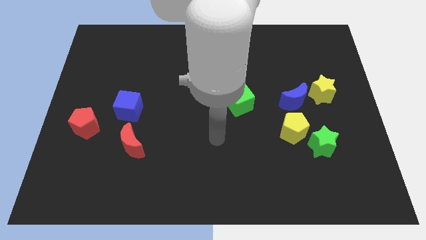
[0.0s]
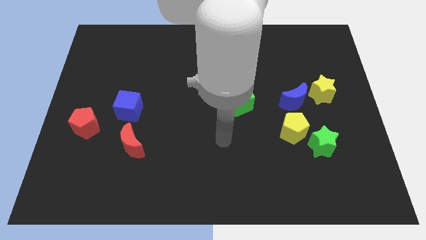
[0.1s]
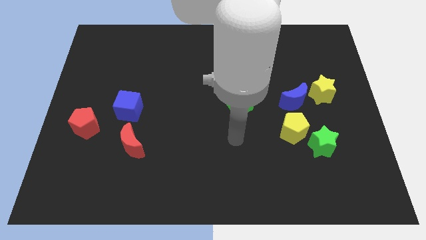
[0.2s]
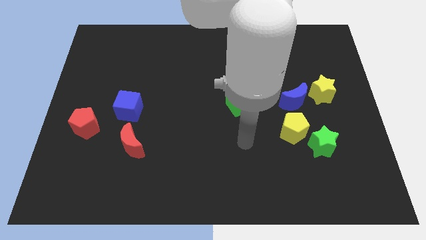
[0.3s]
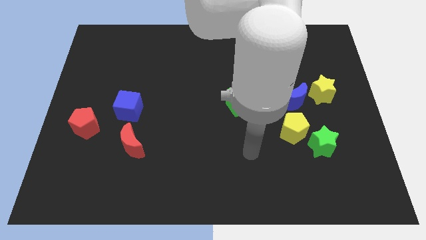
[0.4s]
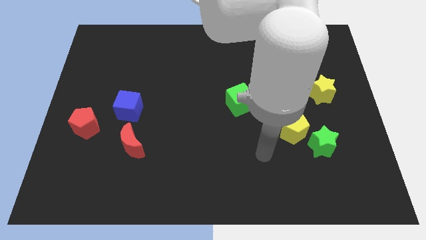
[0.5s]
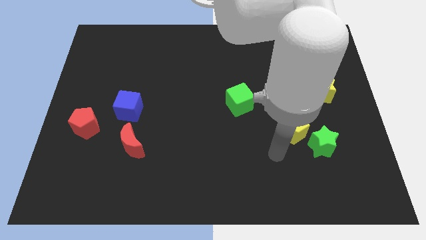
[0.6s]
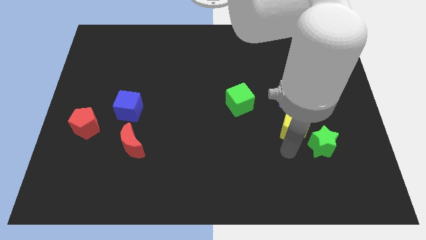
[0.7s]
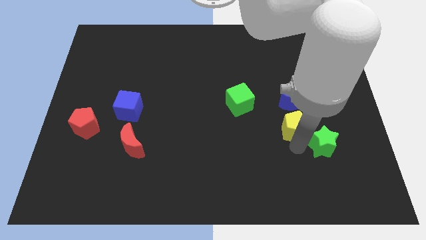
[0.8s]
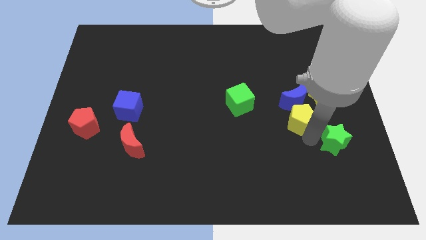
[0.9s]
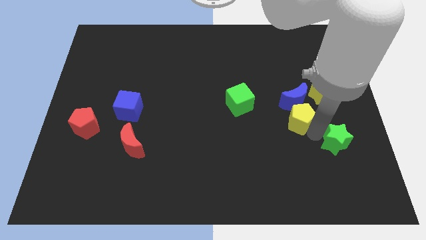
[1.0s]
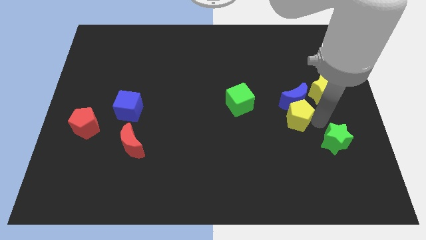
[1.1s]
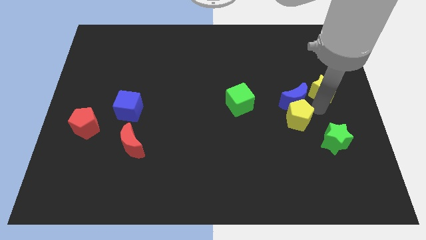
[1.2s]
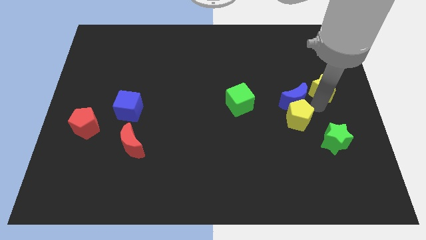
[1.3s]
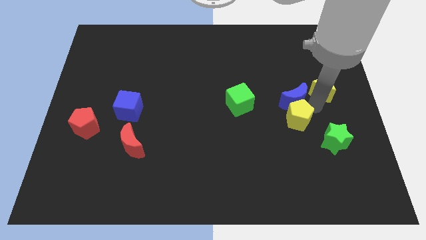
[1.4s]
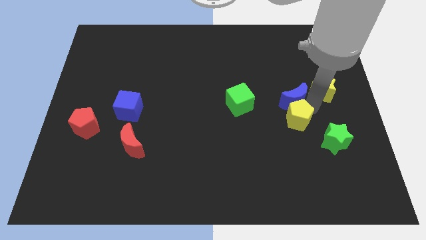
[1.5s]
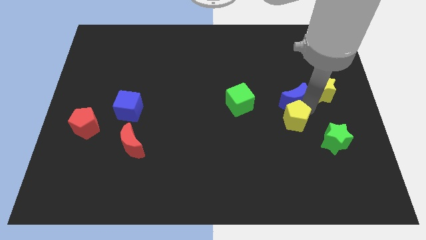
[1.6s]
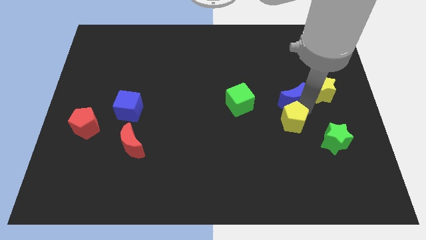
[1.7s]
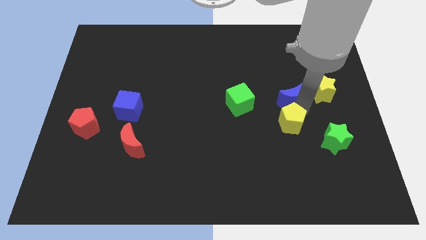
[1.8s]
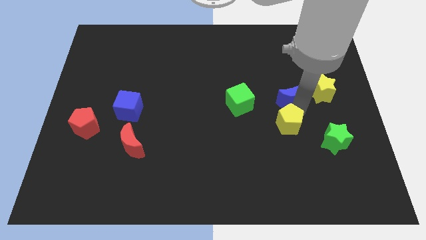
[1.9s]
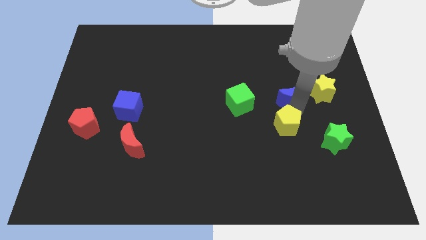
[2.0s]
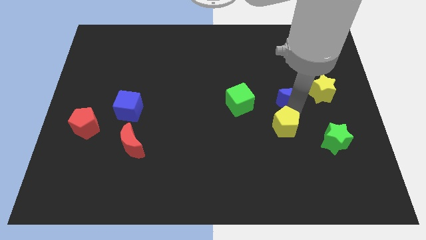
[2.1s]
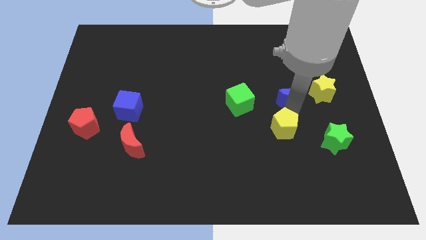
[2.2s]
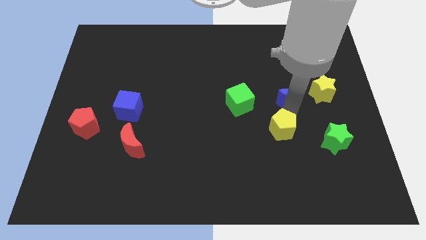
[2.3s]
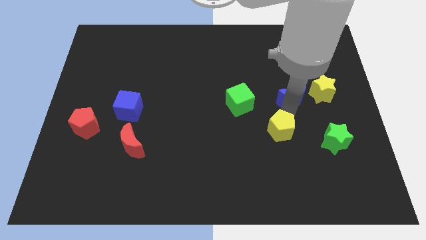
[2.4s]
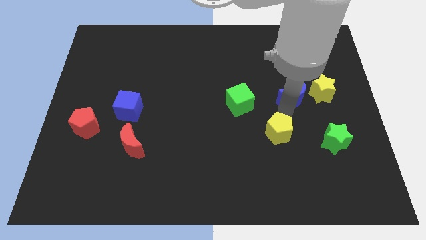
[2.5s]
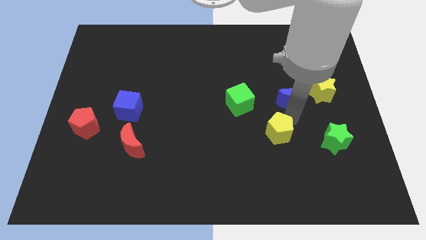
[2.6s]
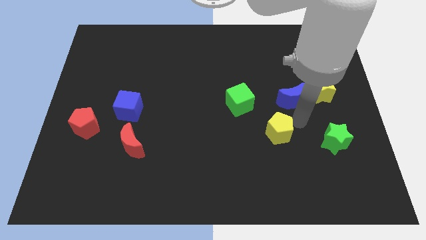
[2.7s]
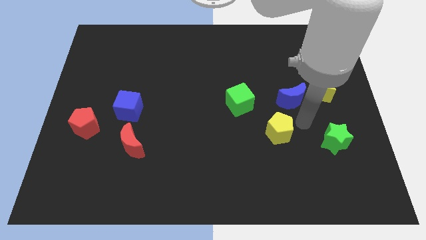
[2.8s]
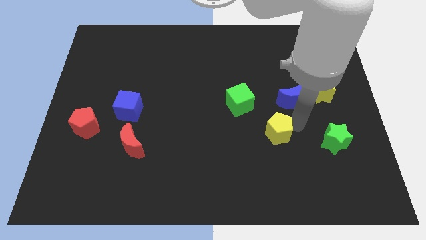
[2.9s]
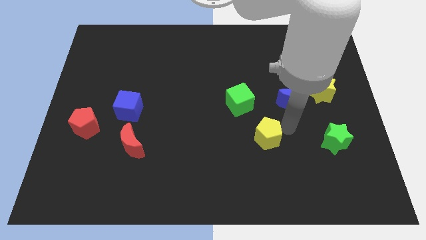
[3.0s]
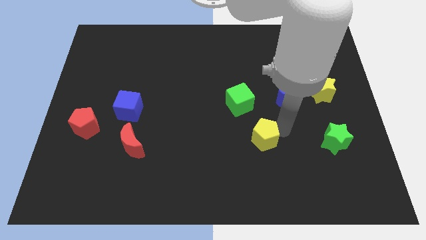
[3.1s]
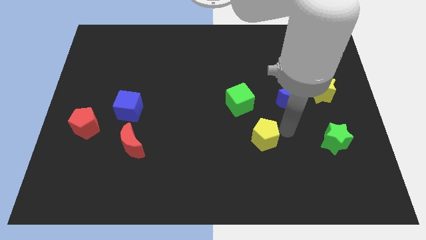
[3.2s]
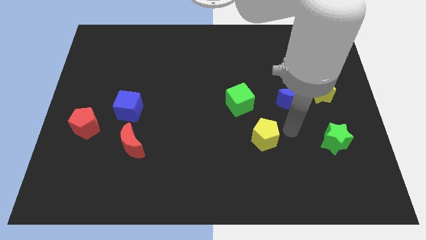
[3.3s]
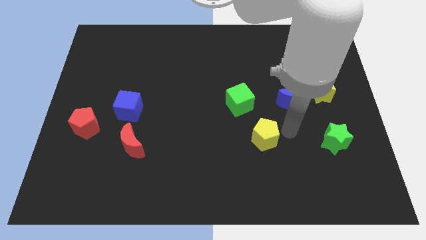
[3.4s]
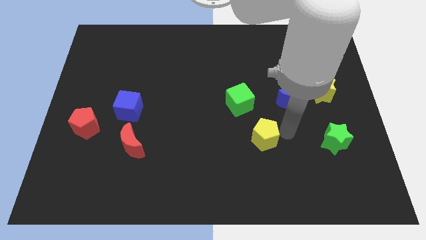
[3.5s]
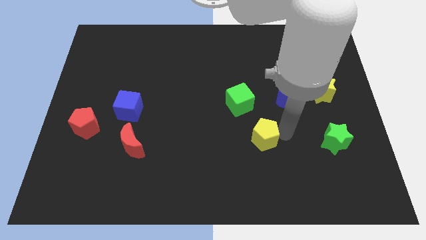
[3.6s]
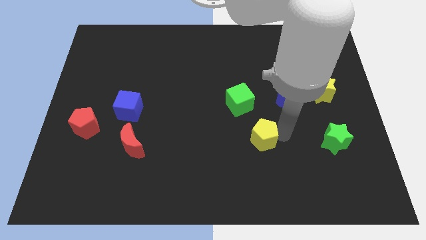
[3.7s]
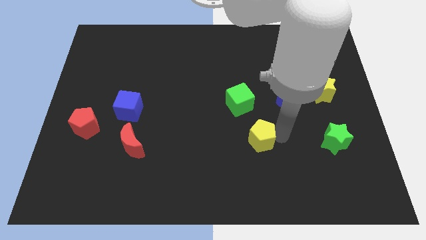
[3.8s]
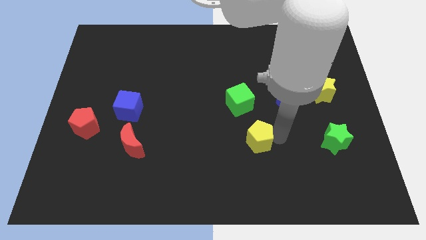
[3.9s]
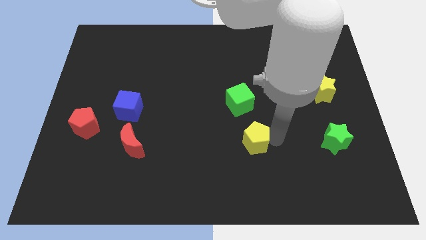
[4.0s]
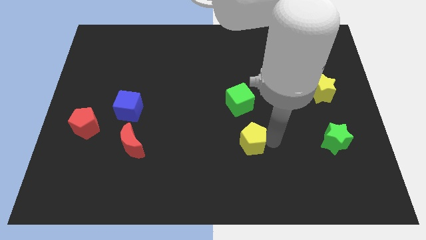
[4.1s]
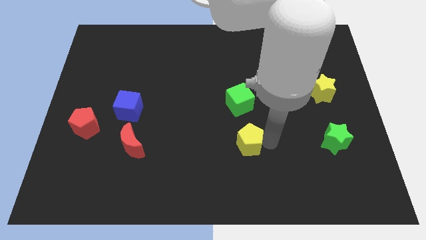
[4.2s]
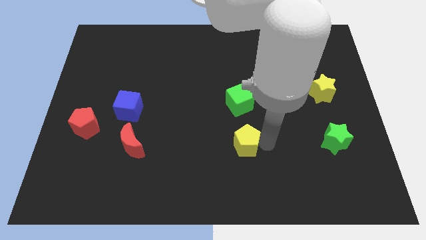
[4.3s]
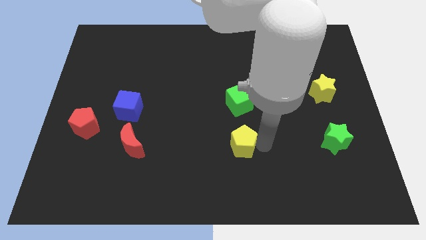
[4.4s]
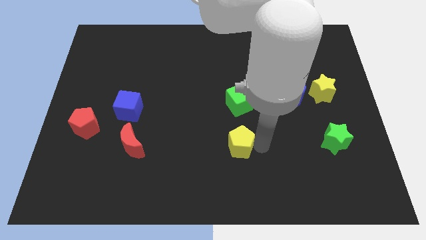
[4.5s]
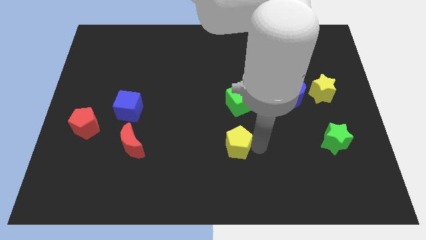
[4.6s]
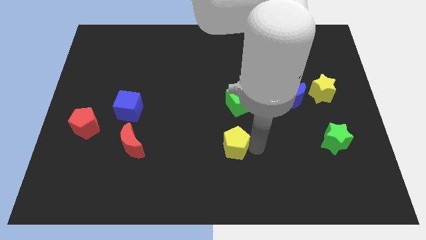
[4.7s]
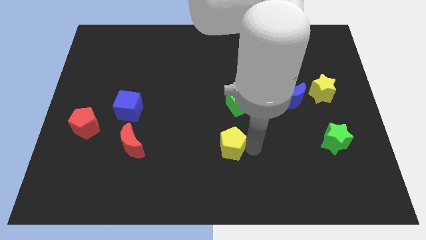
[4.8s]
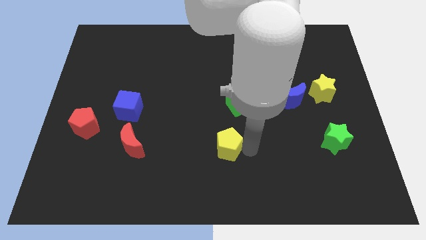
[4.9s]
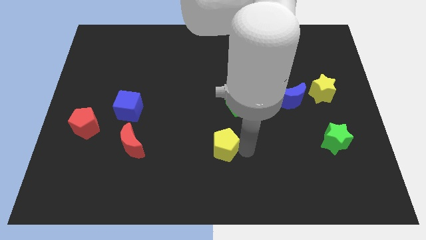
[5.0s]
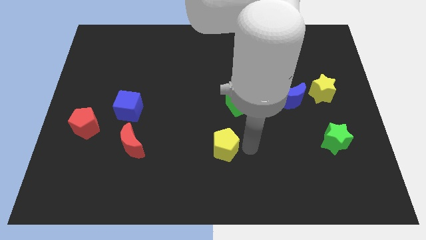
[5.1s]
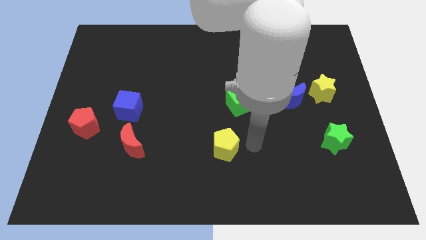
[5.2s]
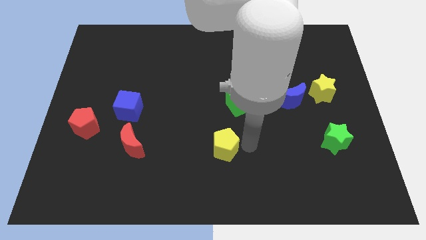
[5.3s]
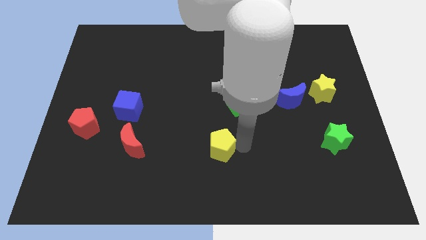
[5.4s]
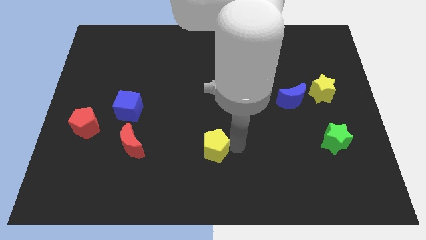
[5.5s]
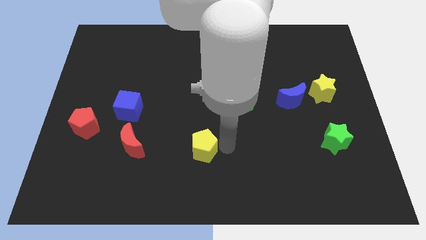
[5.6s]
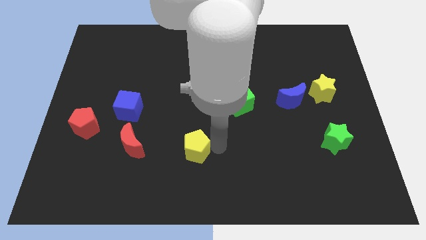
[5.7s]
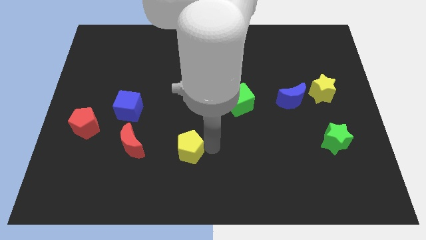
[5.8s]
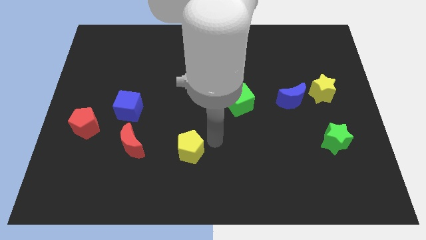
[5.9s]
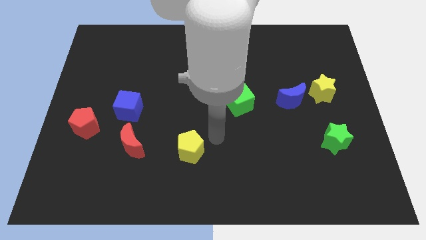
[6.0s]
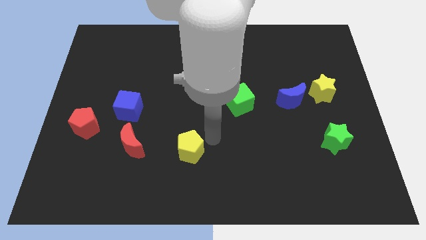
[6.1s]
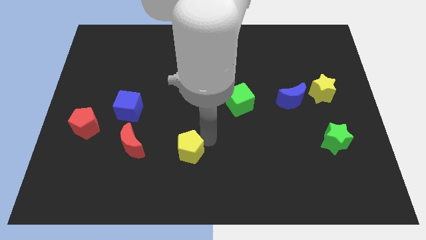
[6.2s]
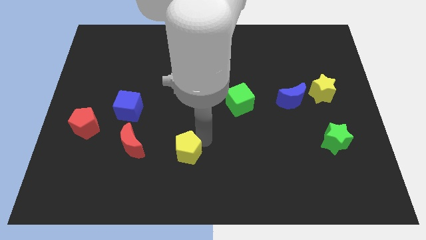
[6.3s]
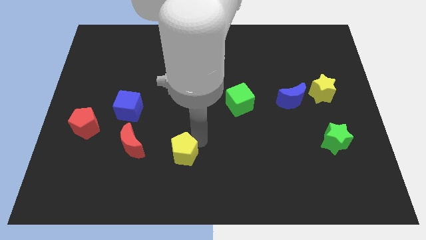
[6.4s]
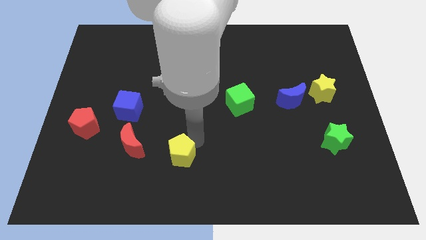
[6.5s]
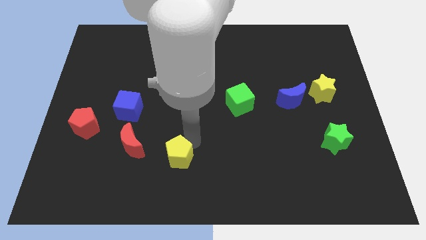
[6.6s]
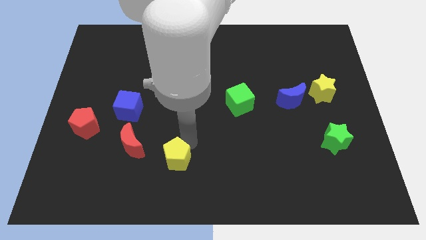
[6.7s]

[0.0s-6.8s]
put the yellow pentagon to the bottom right side of the red moon
